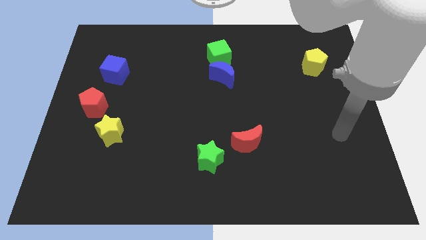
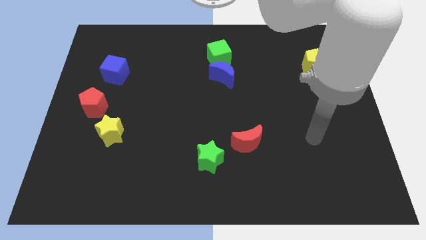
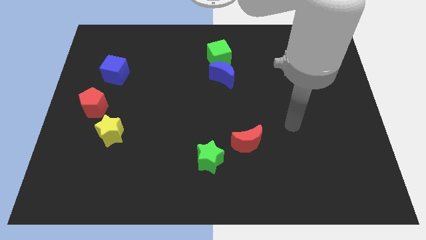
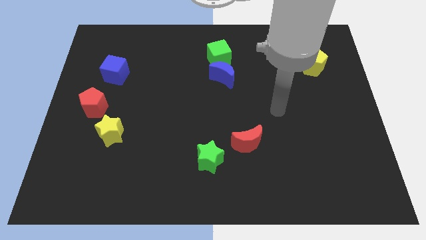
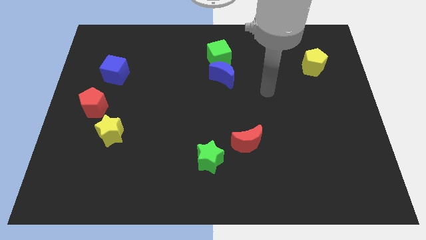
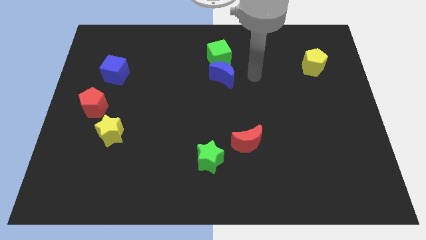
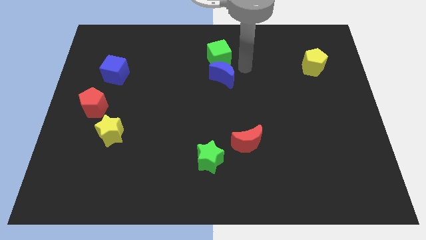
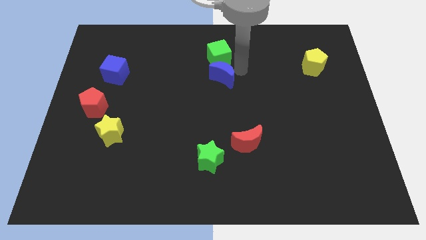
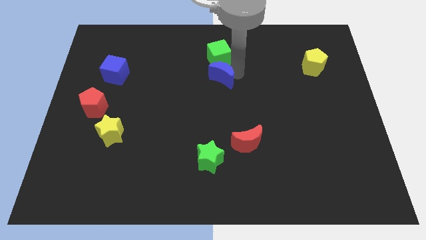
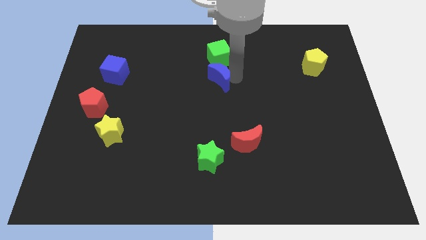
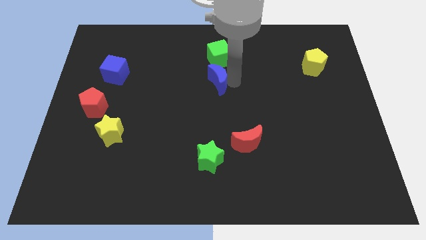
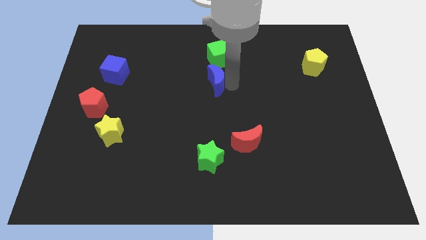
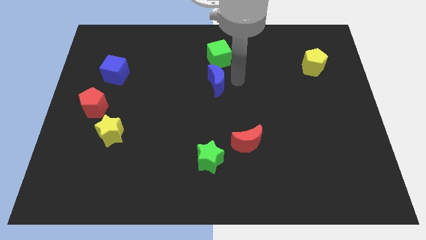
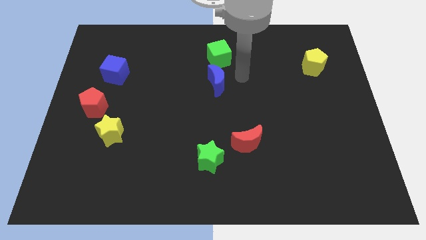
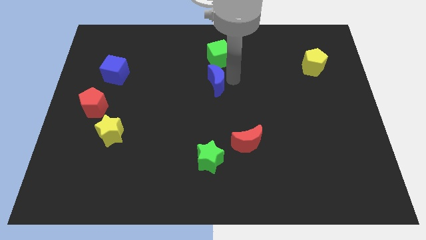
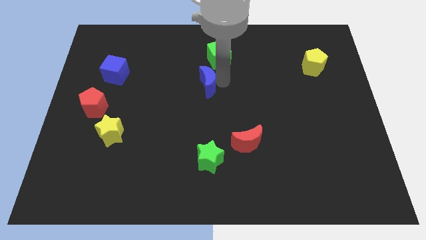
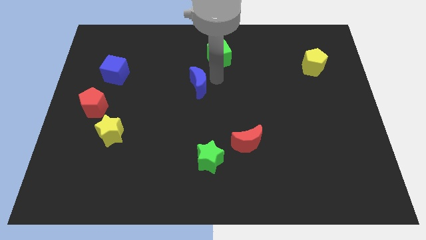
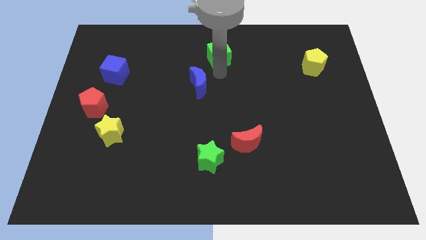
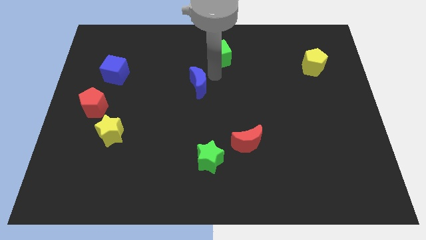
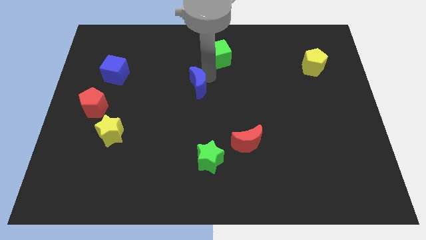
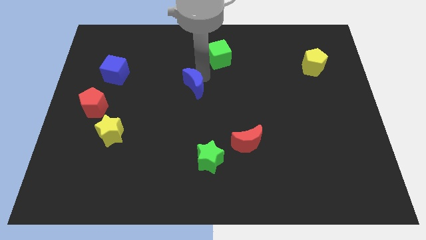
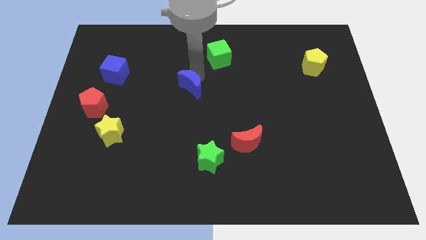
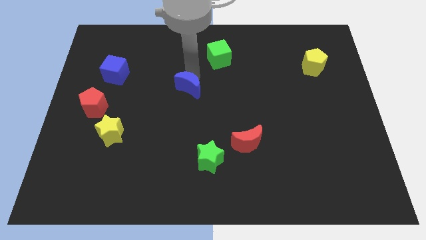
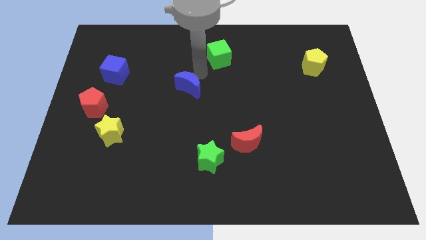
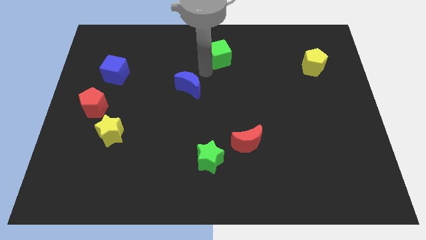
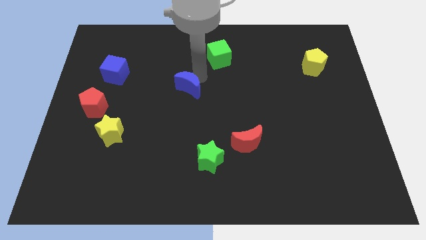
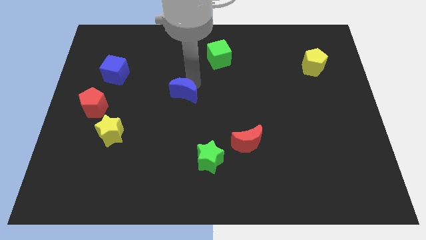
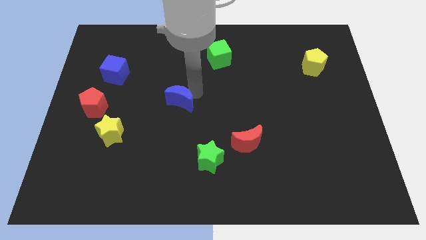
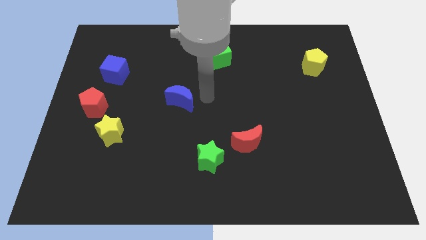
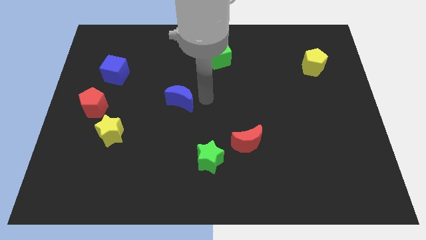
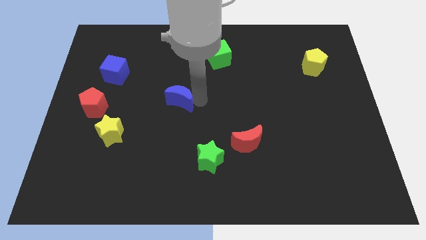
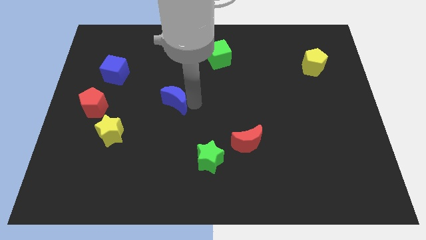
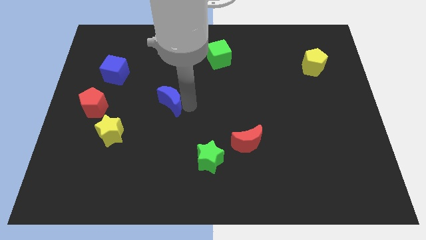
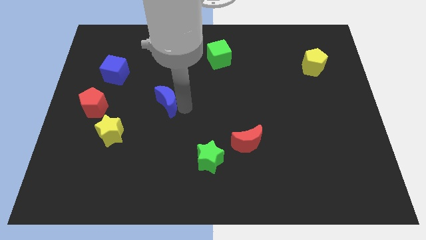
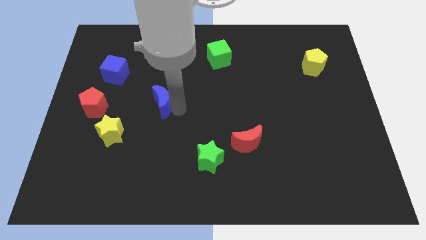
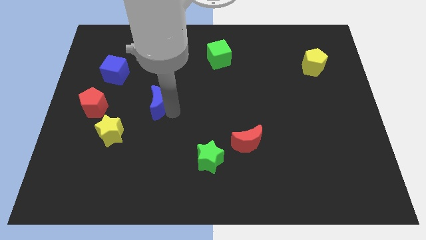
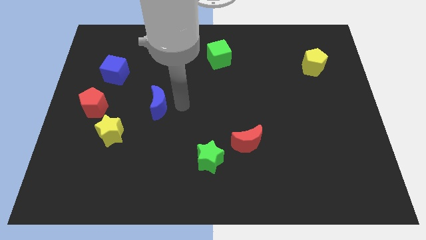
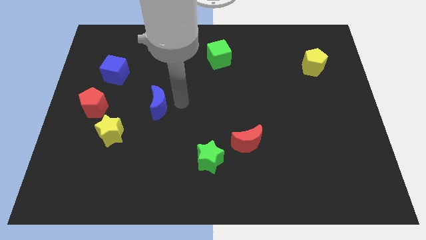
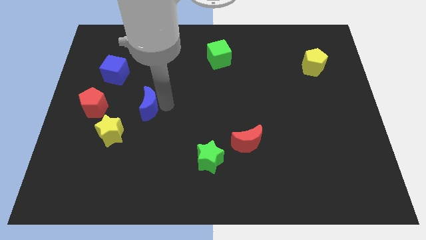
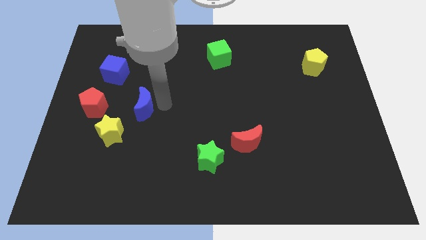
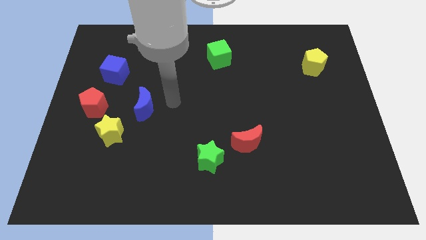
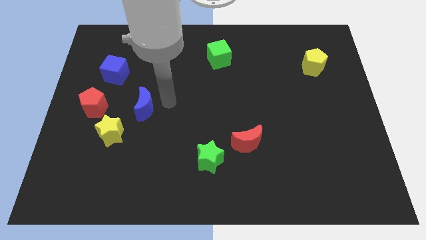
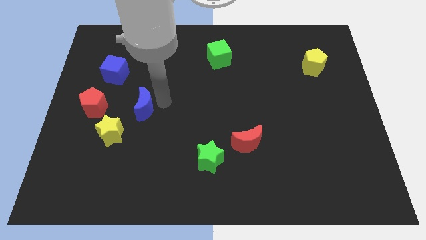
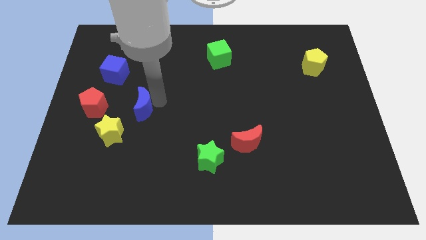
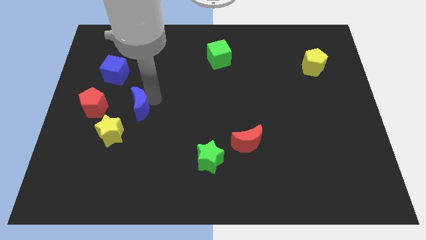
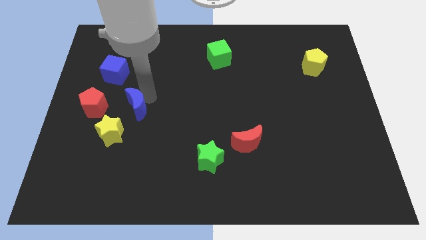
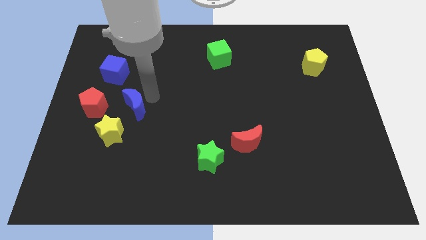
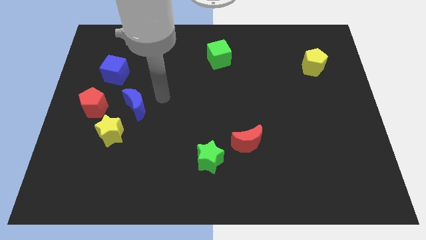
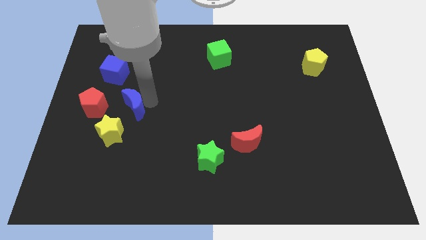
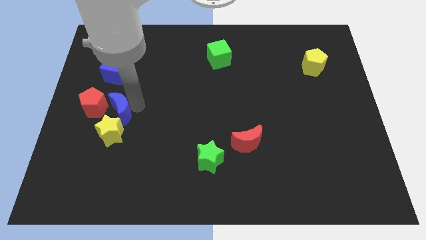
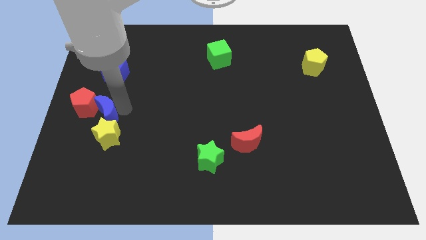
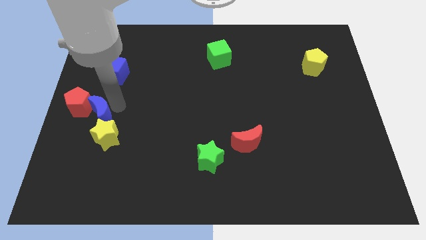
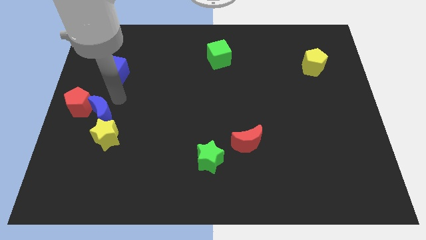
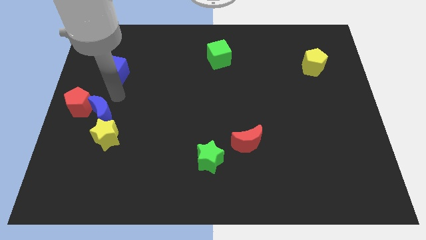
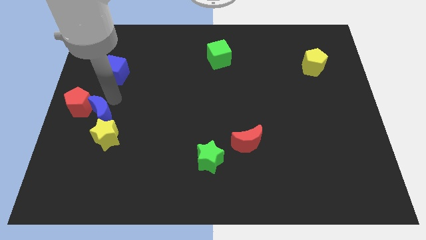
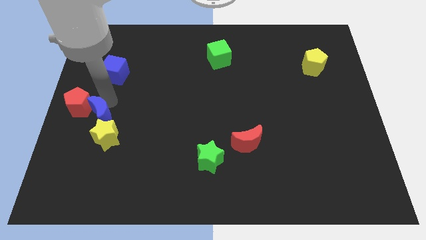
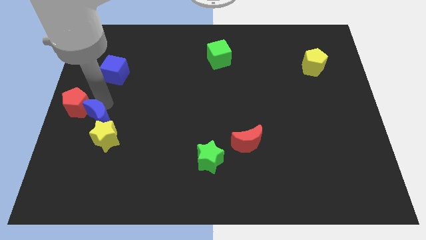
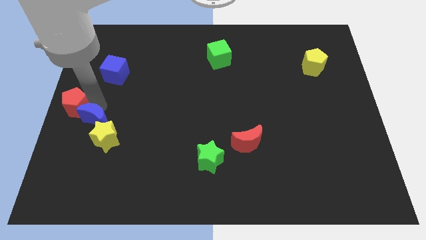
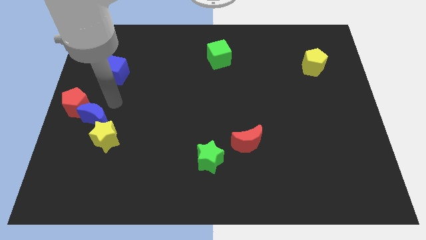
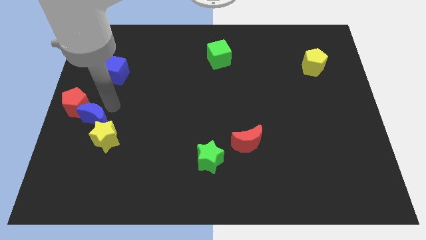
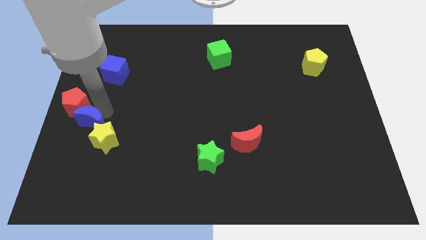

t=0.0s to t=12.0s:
put the blue moon to the bottom side of the red pentagon
